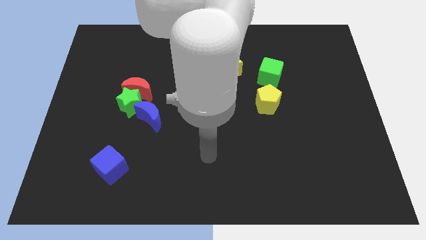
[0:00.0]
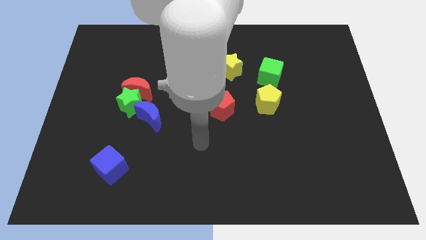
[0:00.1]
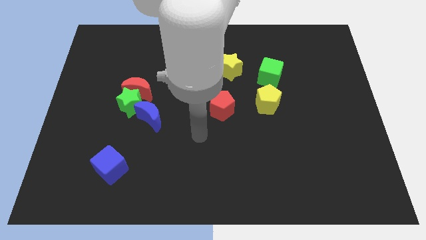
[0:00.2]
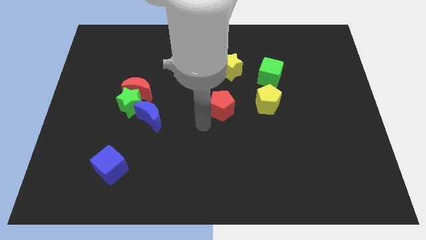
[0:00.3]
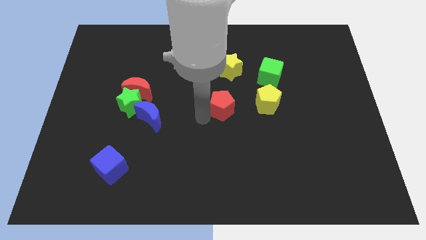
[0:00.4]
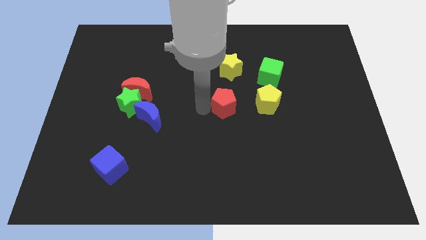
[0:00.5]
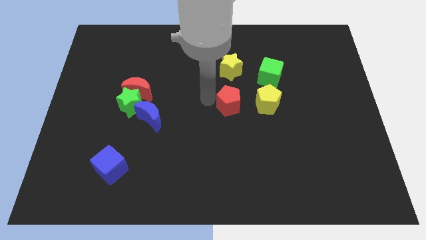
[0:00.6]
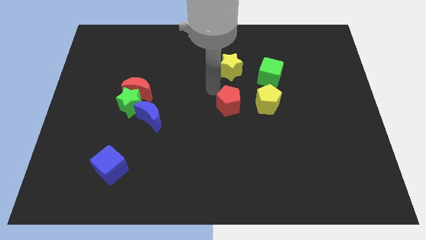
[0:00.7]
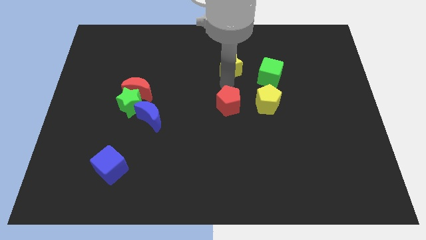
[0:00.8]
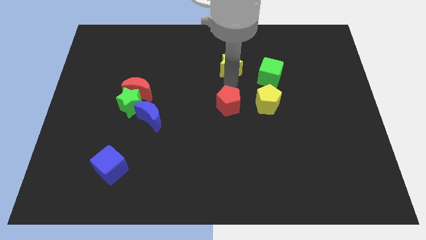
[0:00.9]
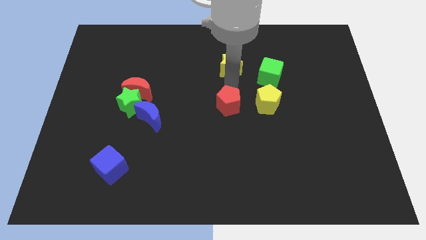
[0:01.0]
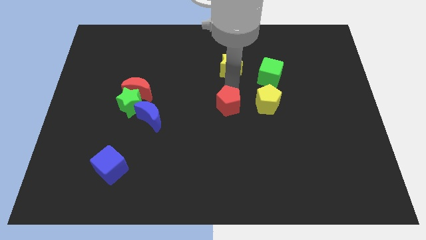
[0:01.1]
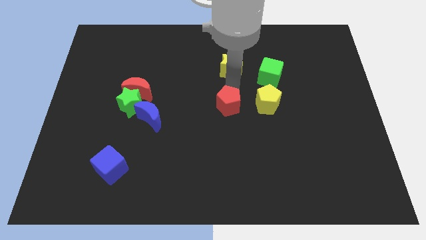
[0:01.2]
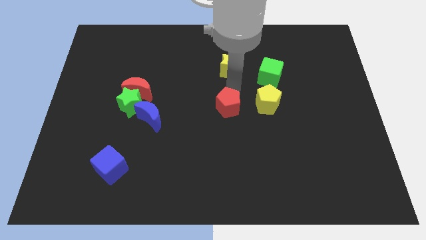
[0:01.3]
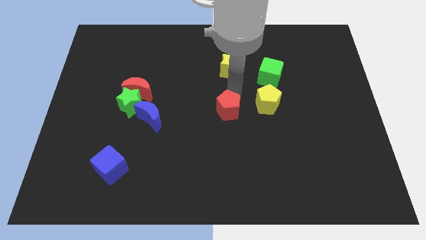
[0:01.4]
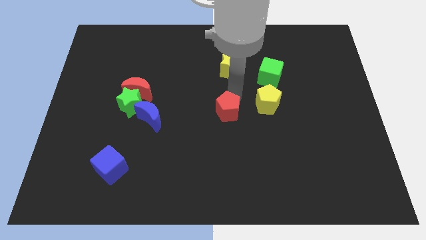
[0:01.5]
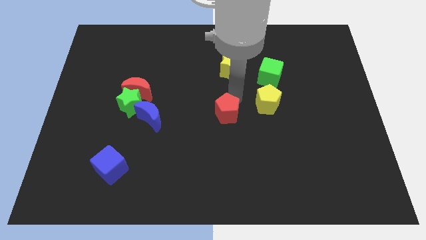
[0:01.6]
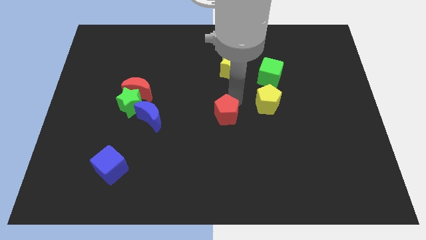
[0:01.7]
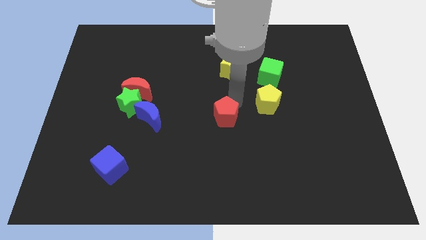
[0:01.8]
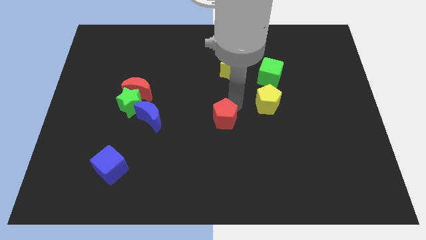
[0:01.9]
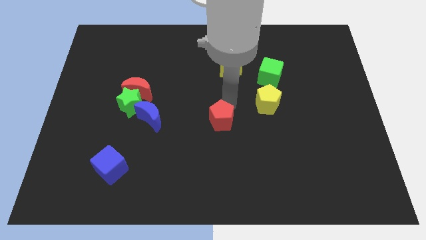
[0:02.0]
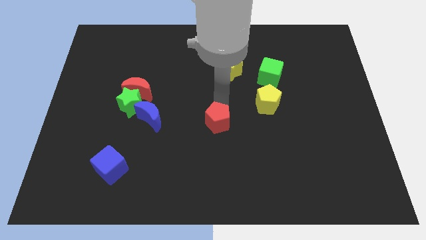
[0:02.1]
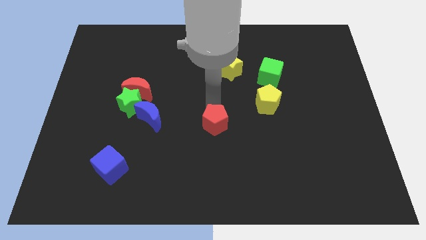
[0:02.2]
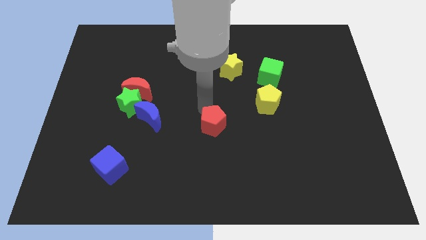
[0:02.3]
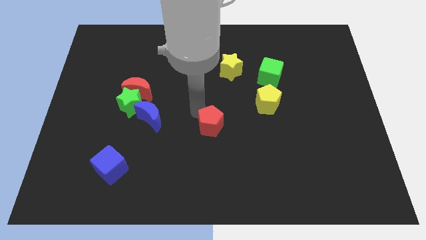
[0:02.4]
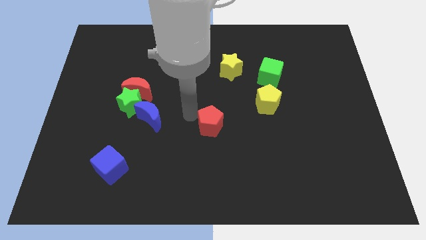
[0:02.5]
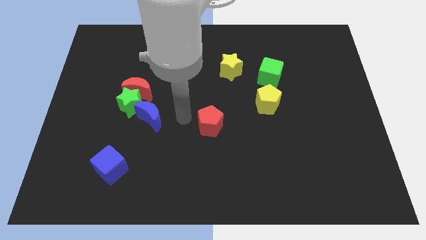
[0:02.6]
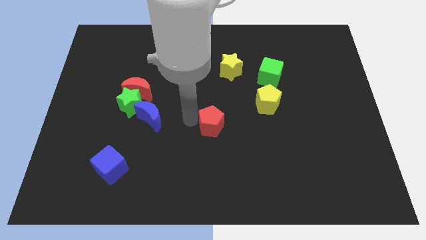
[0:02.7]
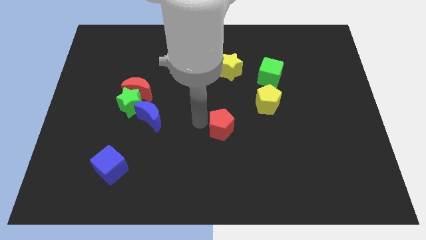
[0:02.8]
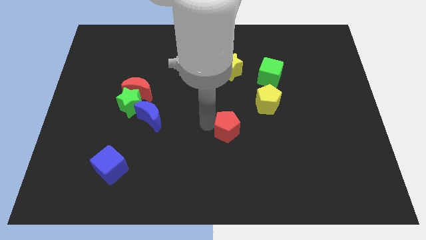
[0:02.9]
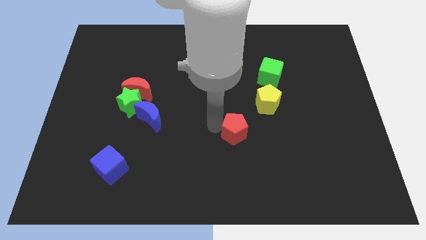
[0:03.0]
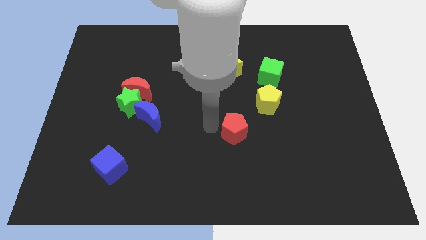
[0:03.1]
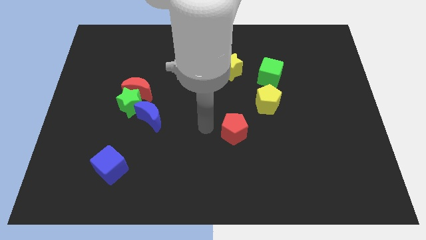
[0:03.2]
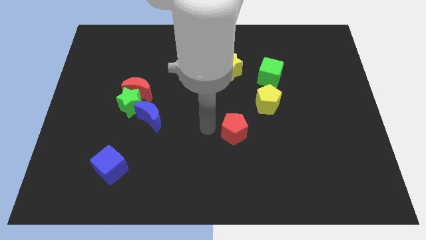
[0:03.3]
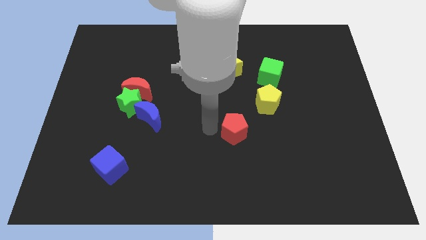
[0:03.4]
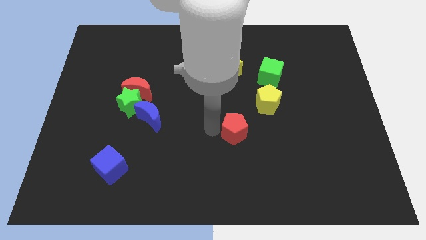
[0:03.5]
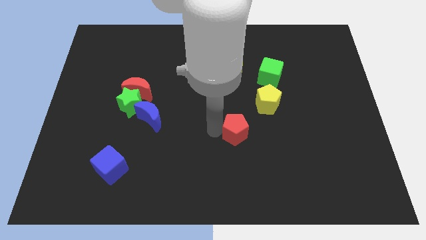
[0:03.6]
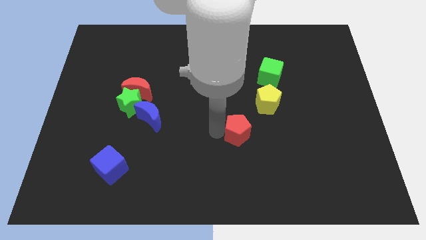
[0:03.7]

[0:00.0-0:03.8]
push the red pentagon down and then to the right a little

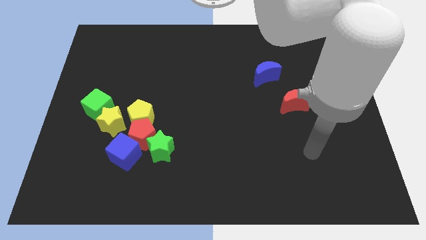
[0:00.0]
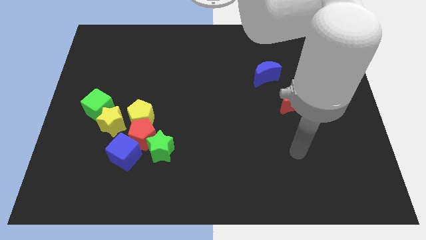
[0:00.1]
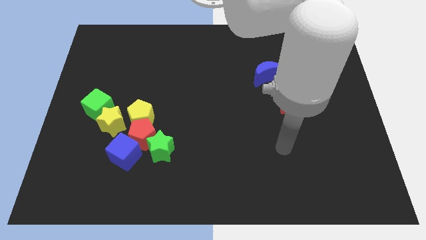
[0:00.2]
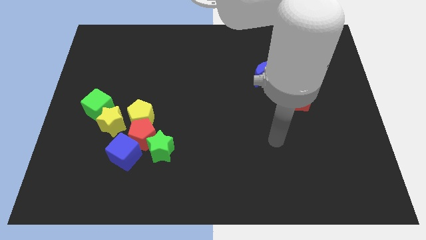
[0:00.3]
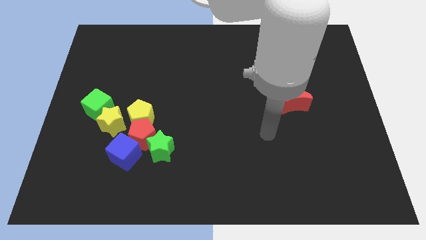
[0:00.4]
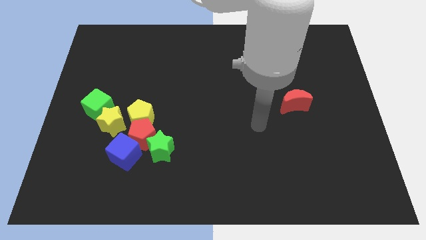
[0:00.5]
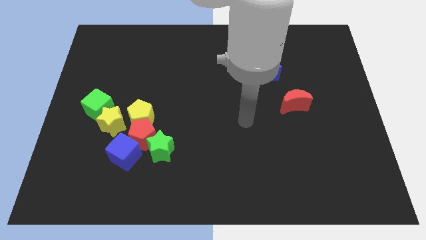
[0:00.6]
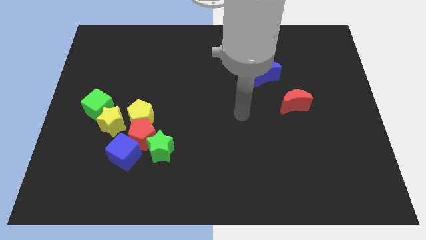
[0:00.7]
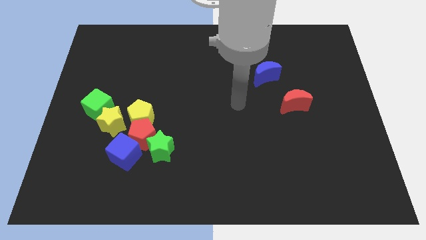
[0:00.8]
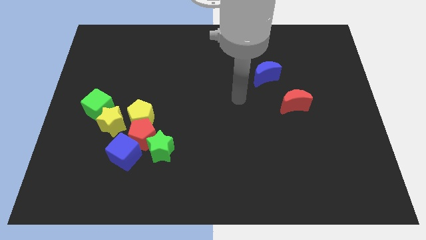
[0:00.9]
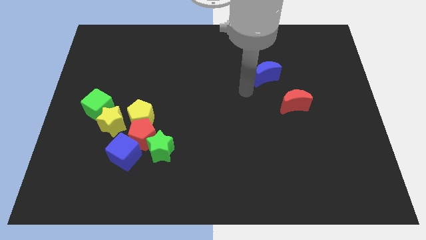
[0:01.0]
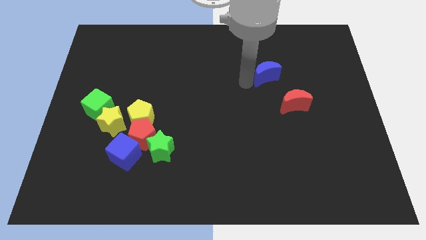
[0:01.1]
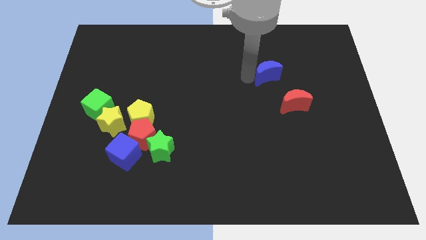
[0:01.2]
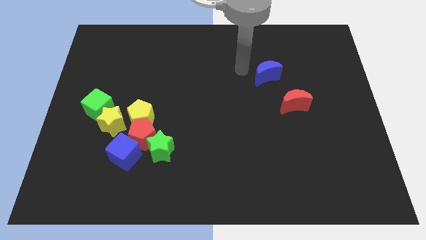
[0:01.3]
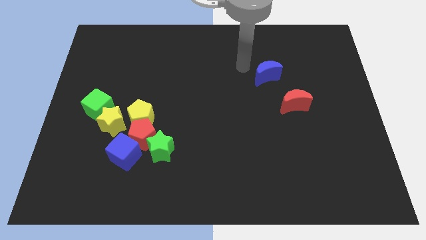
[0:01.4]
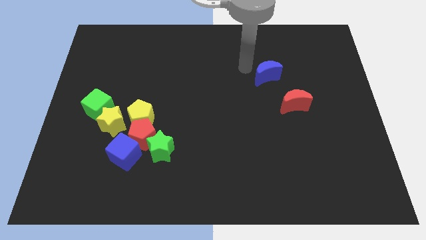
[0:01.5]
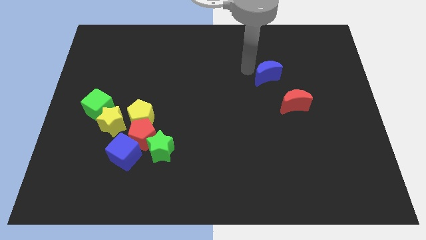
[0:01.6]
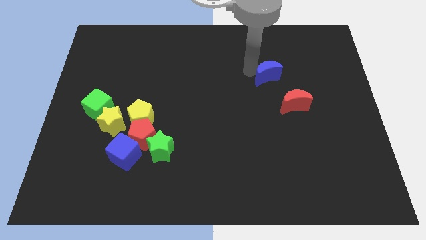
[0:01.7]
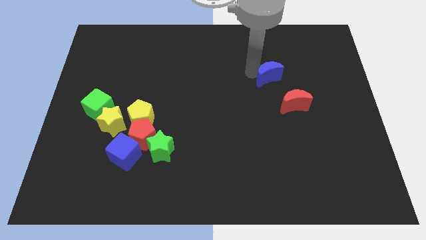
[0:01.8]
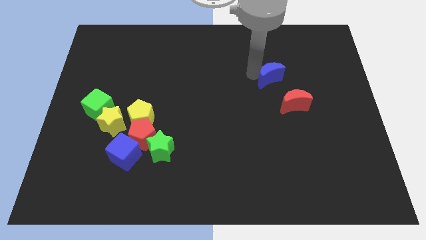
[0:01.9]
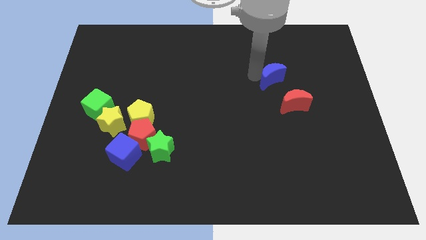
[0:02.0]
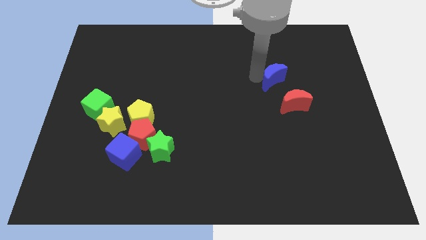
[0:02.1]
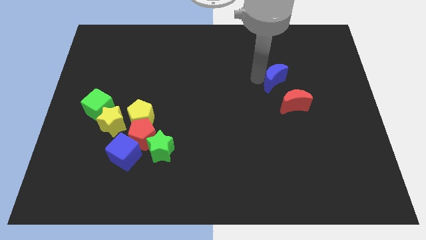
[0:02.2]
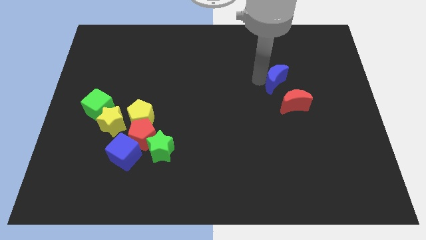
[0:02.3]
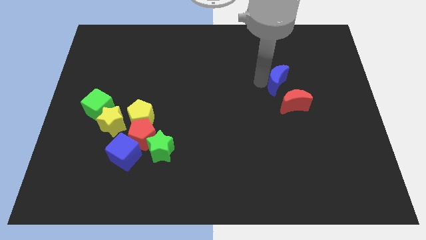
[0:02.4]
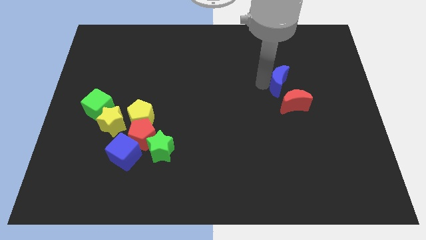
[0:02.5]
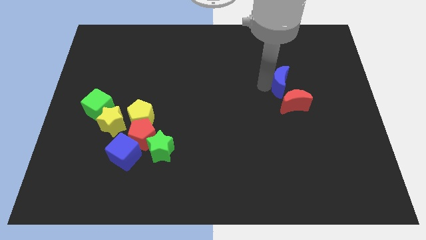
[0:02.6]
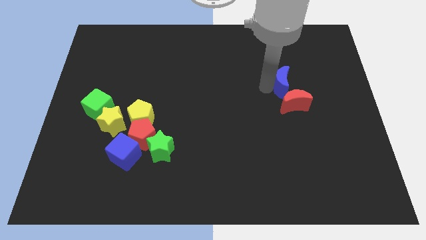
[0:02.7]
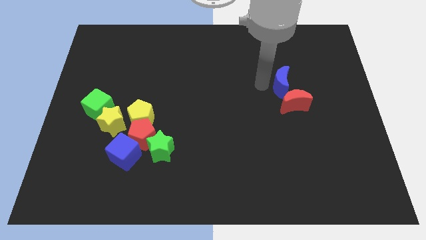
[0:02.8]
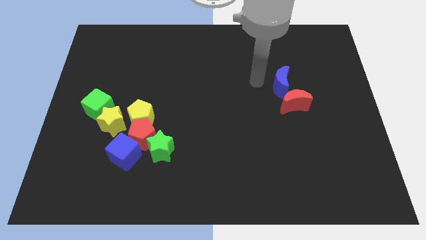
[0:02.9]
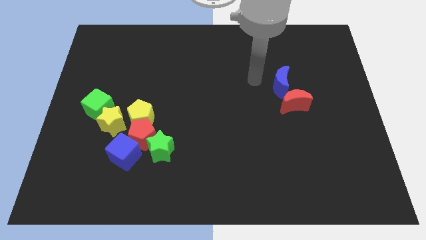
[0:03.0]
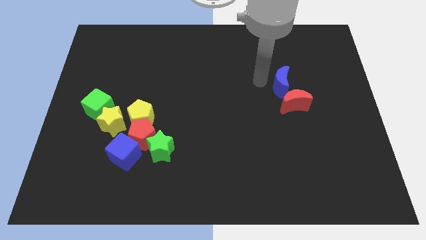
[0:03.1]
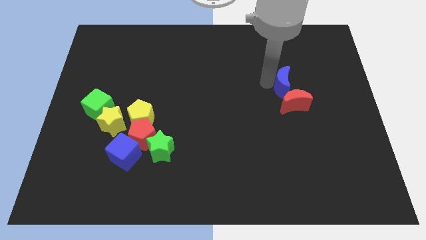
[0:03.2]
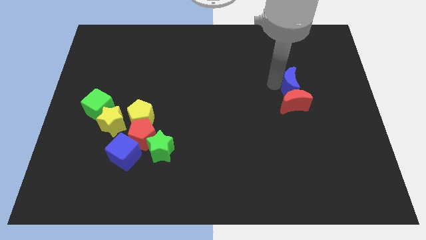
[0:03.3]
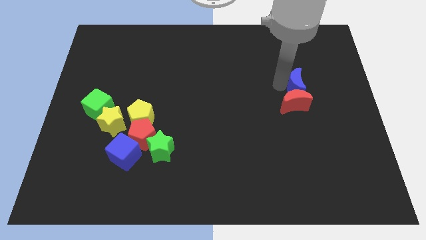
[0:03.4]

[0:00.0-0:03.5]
slightly slide the blue moon down and then to the right

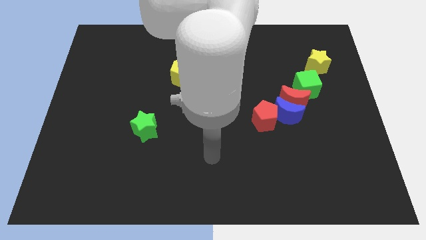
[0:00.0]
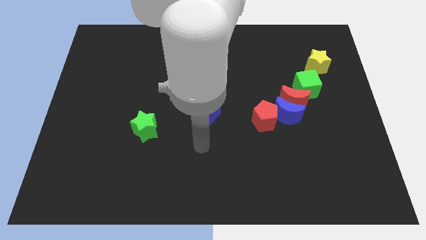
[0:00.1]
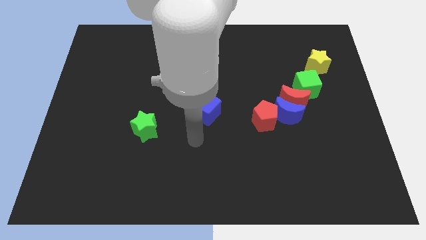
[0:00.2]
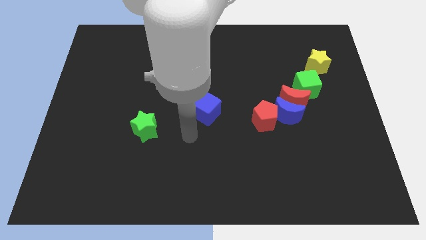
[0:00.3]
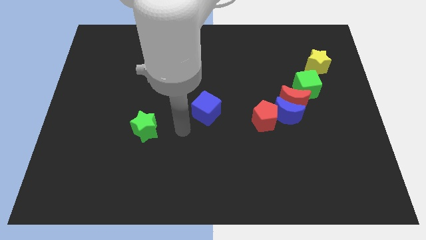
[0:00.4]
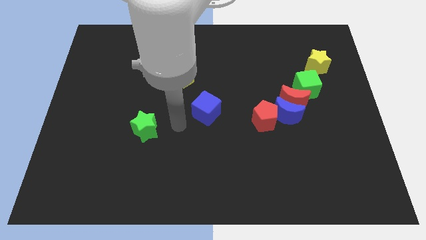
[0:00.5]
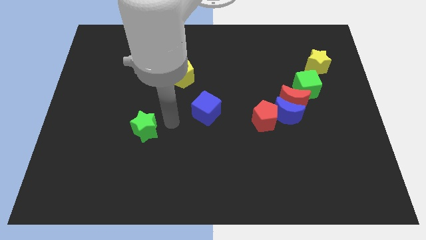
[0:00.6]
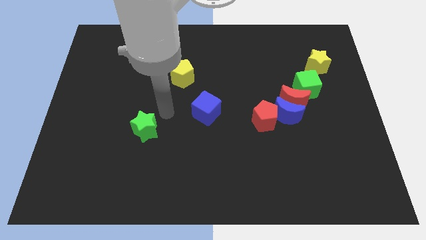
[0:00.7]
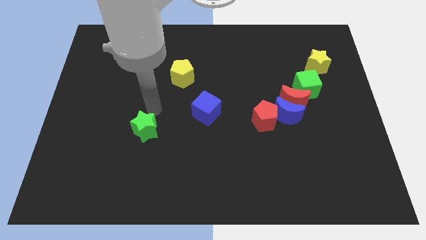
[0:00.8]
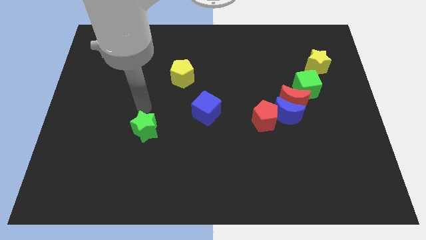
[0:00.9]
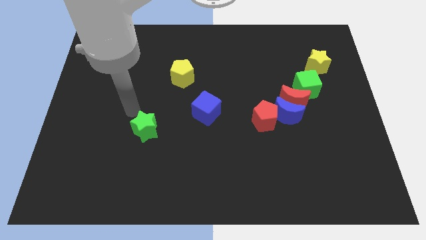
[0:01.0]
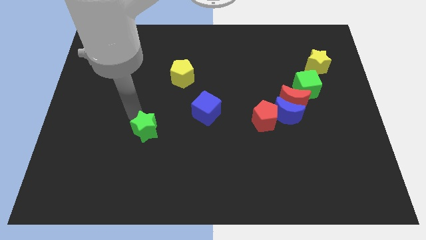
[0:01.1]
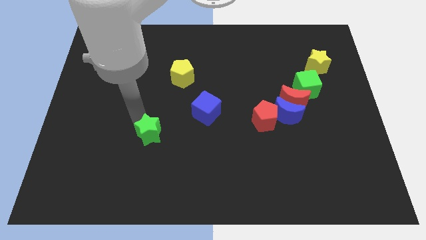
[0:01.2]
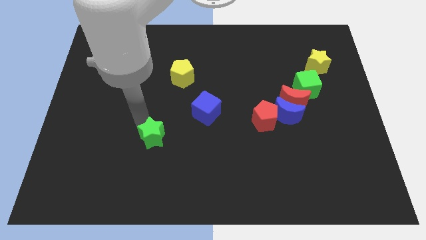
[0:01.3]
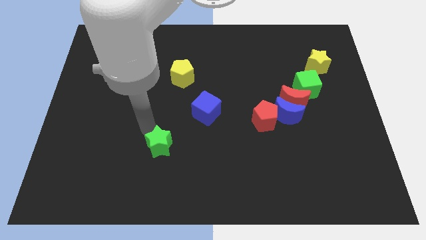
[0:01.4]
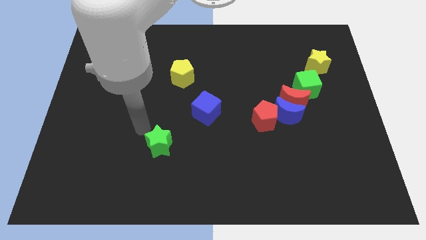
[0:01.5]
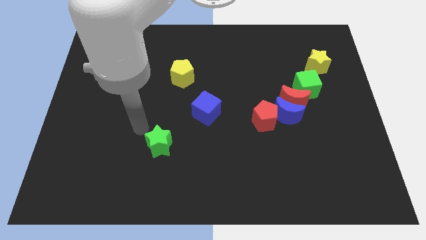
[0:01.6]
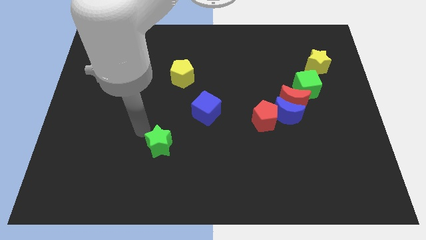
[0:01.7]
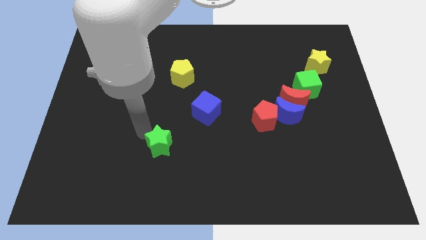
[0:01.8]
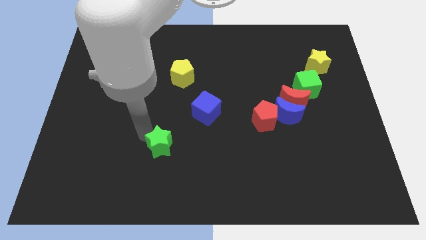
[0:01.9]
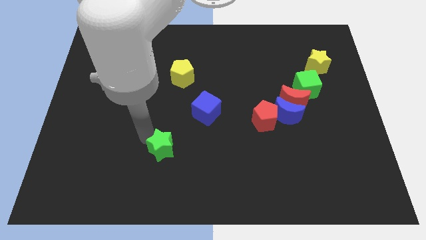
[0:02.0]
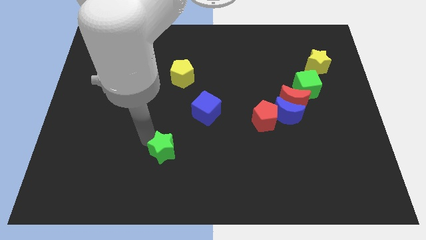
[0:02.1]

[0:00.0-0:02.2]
slide the green star down and then to the right a little bit
